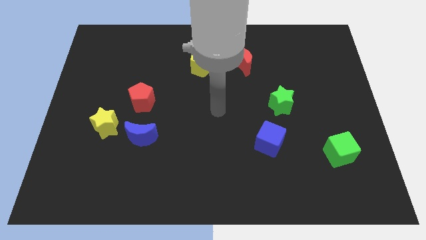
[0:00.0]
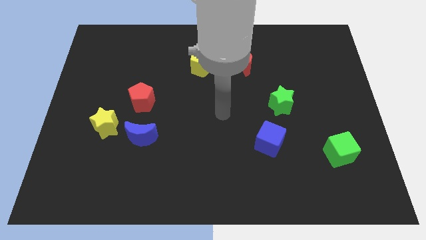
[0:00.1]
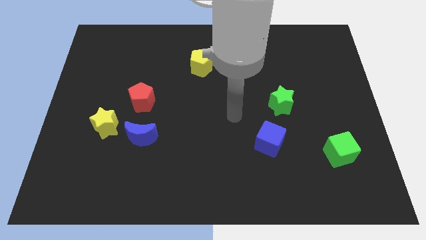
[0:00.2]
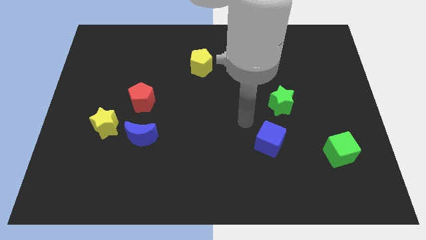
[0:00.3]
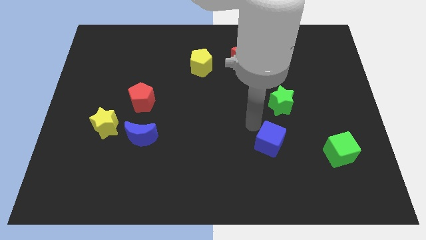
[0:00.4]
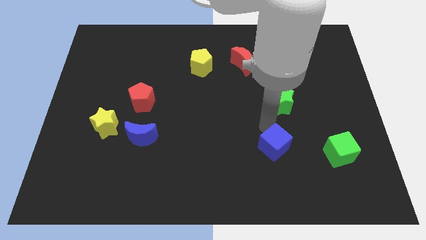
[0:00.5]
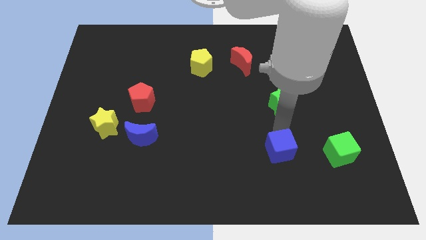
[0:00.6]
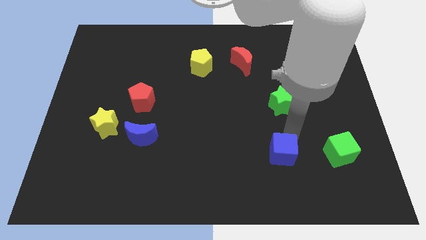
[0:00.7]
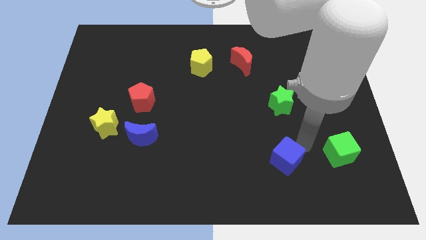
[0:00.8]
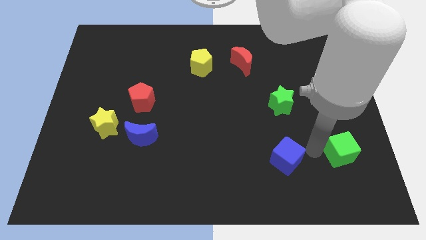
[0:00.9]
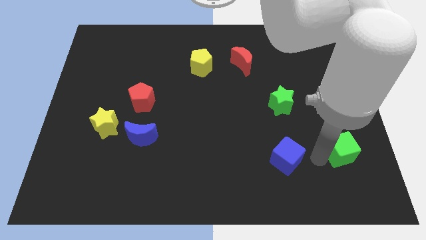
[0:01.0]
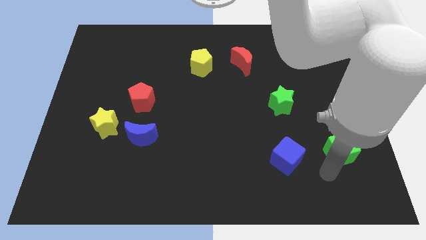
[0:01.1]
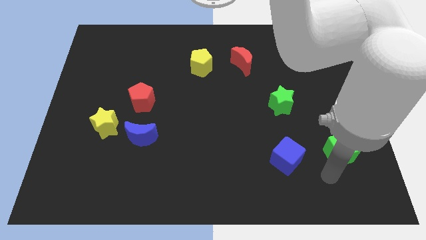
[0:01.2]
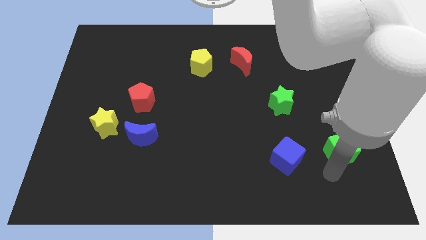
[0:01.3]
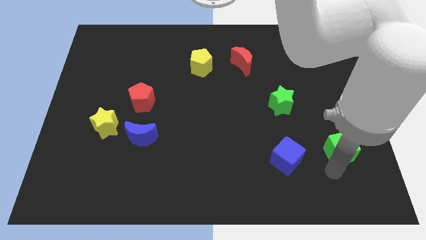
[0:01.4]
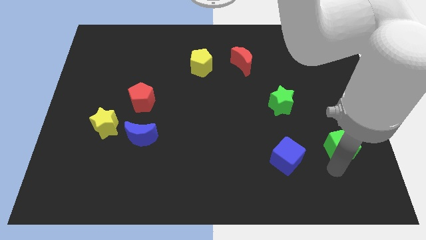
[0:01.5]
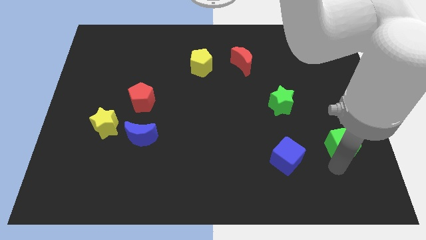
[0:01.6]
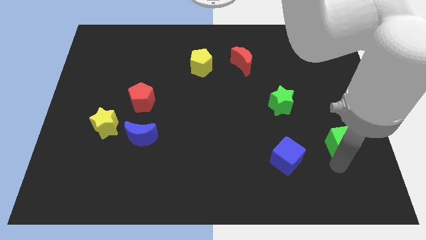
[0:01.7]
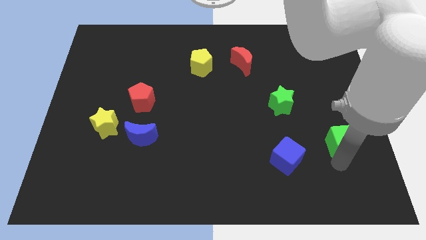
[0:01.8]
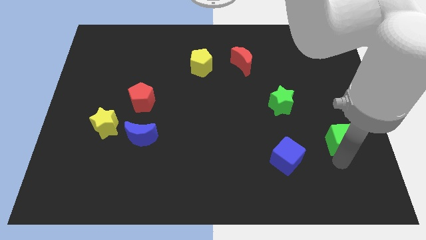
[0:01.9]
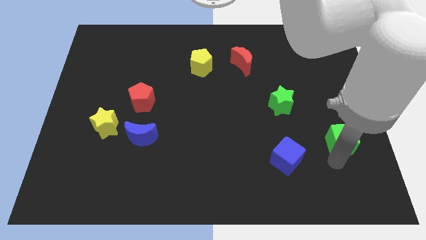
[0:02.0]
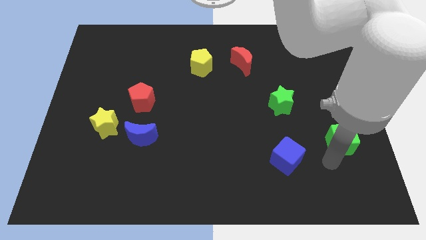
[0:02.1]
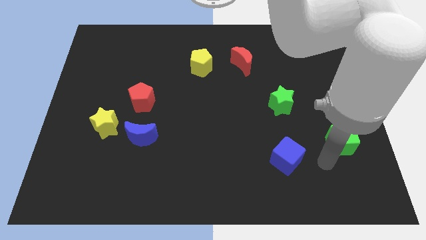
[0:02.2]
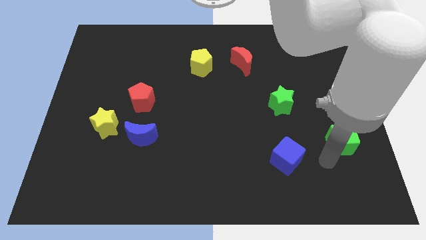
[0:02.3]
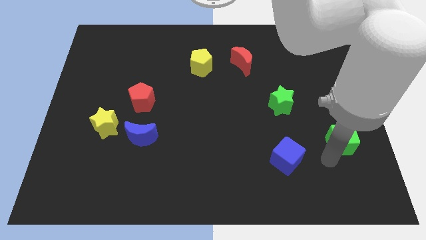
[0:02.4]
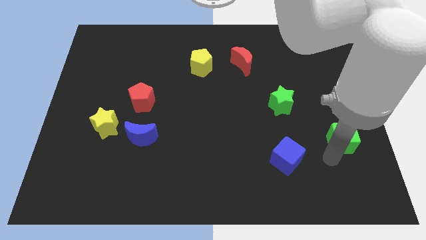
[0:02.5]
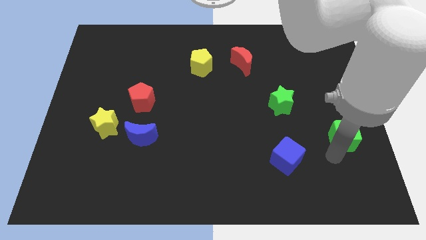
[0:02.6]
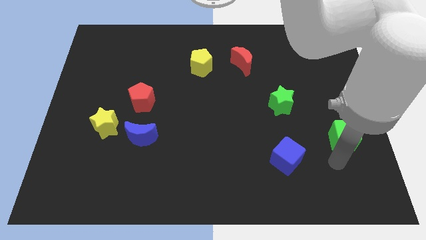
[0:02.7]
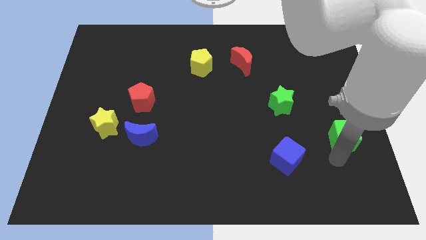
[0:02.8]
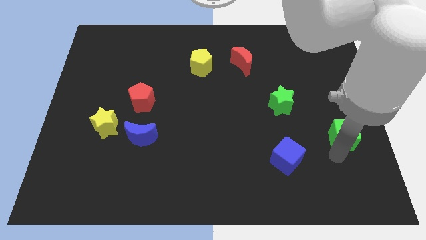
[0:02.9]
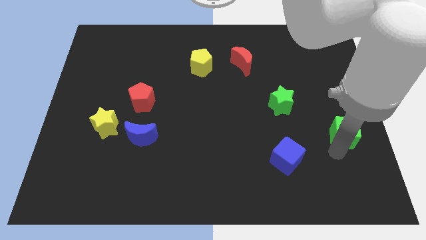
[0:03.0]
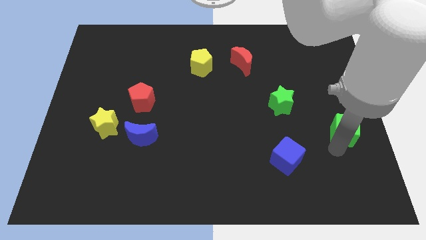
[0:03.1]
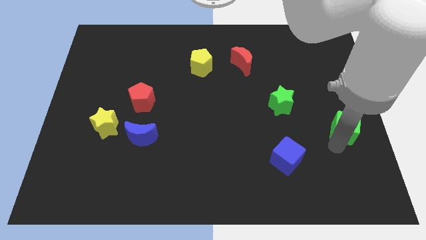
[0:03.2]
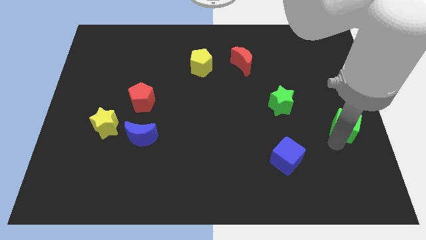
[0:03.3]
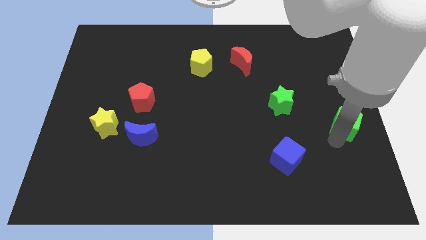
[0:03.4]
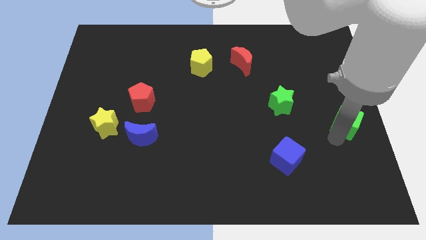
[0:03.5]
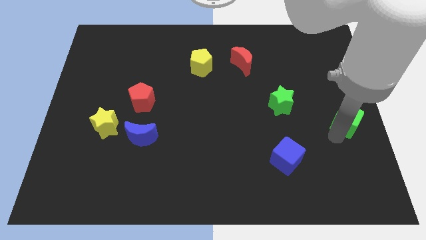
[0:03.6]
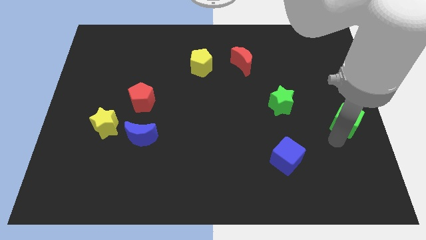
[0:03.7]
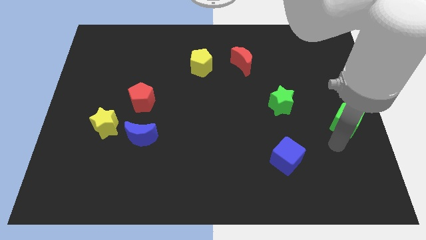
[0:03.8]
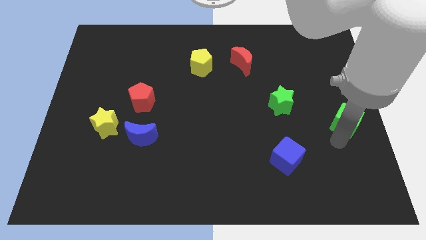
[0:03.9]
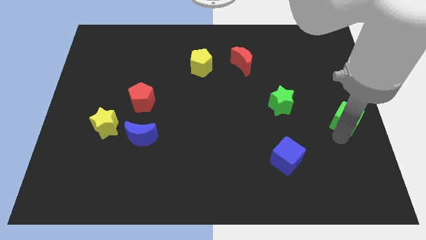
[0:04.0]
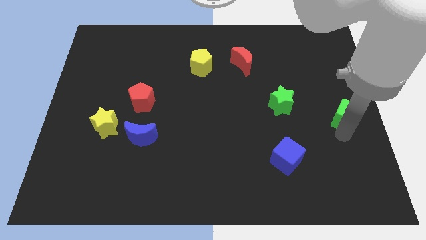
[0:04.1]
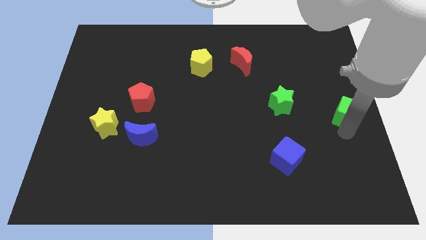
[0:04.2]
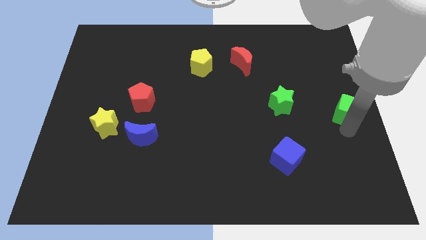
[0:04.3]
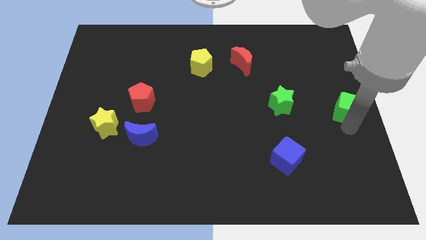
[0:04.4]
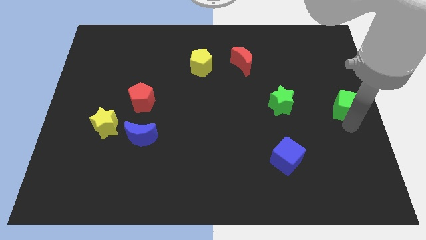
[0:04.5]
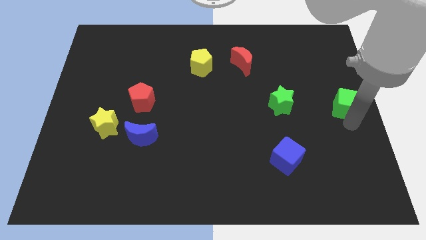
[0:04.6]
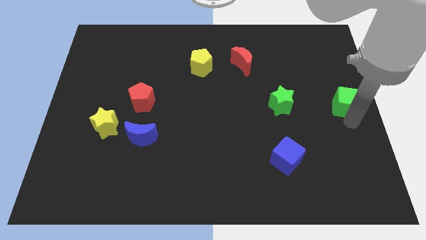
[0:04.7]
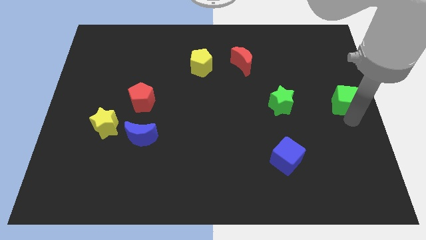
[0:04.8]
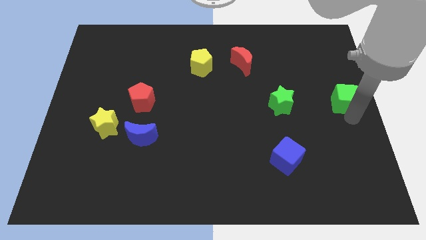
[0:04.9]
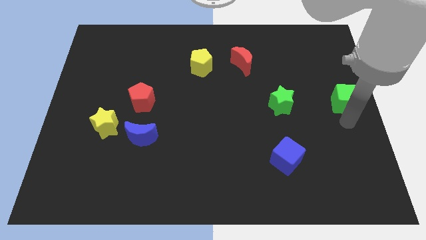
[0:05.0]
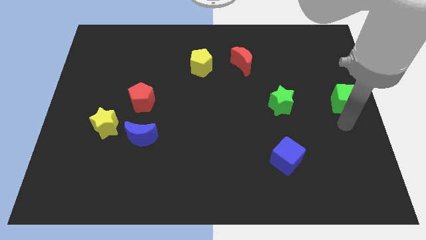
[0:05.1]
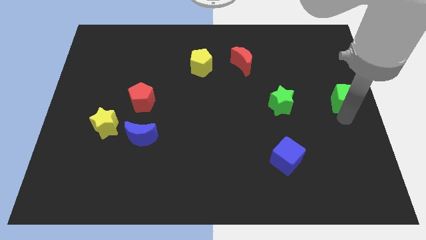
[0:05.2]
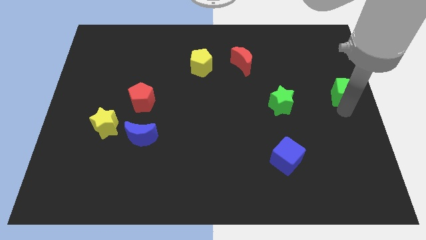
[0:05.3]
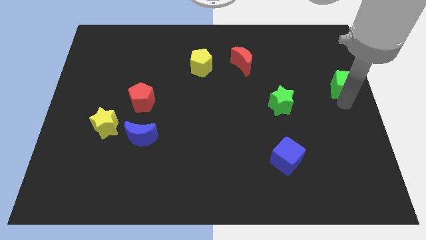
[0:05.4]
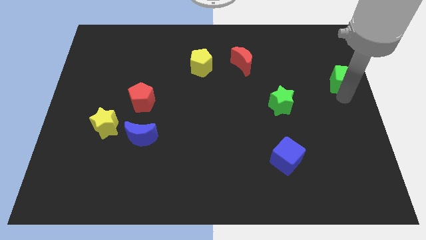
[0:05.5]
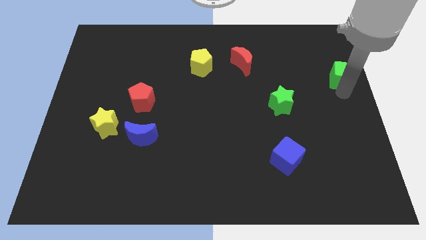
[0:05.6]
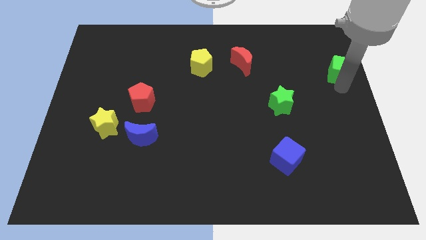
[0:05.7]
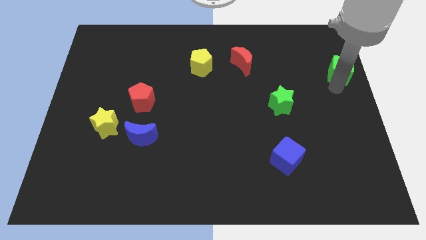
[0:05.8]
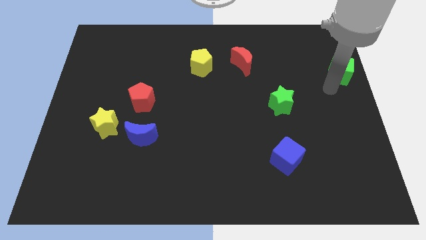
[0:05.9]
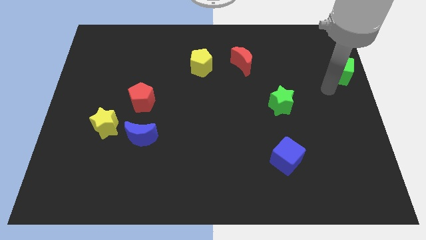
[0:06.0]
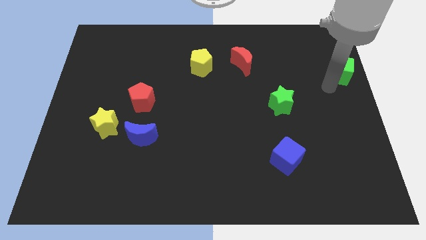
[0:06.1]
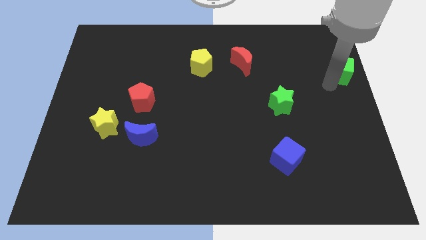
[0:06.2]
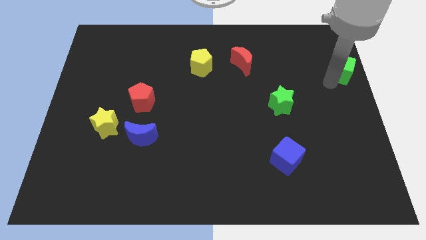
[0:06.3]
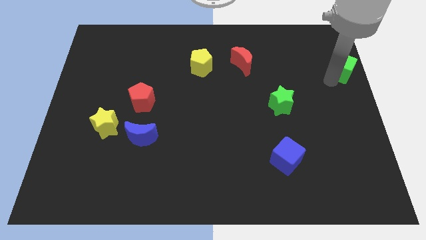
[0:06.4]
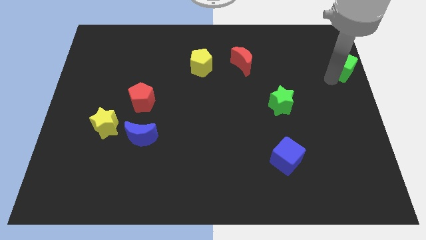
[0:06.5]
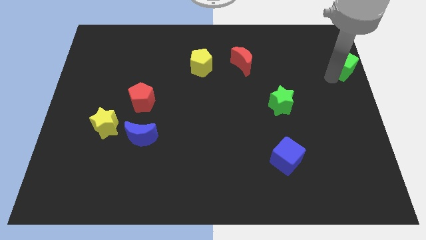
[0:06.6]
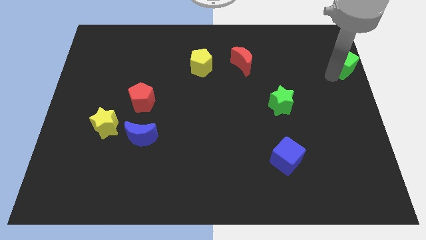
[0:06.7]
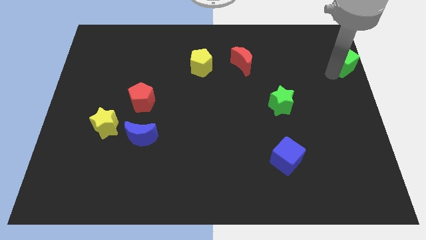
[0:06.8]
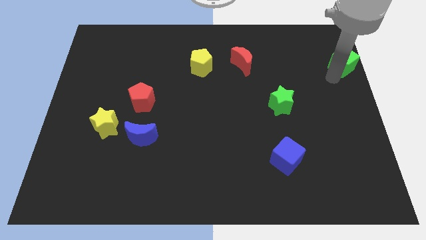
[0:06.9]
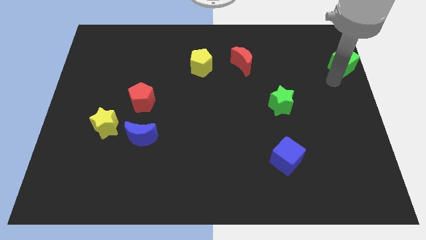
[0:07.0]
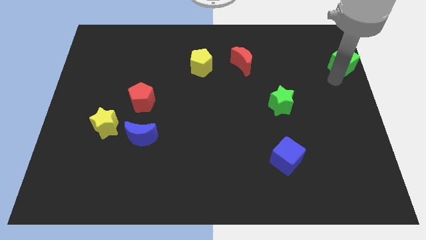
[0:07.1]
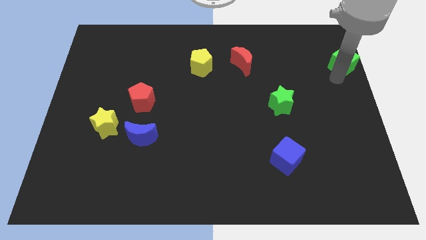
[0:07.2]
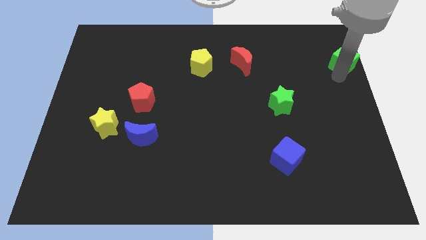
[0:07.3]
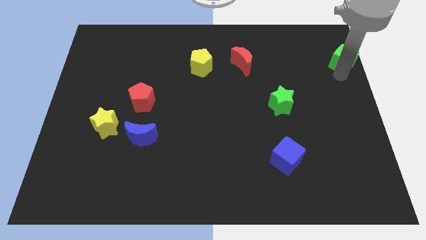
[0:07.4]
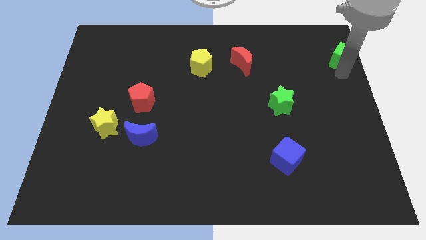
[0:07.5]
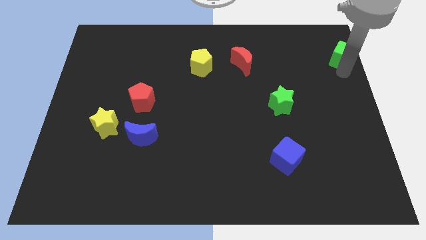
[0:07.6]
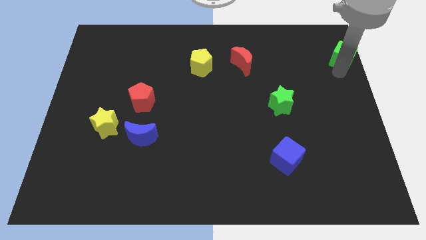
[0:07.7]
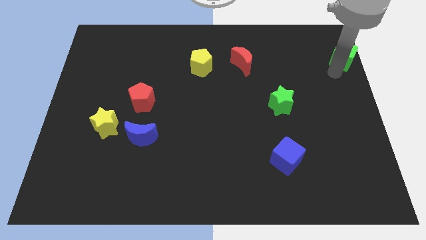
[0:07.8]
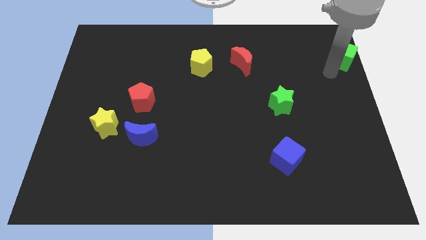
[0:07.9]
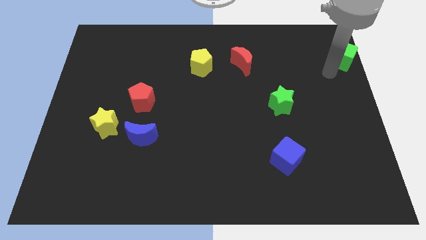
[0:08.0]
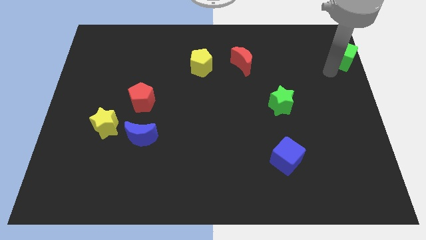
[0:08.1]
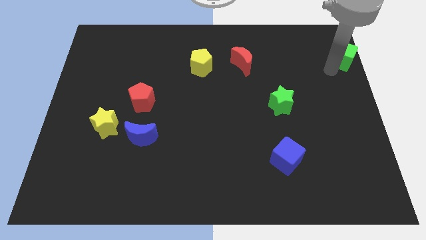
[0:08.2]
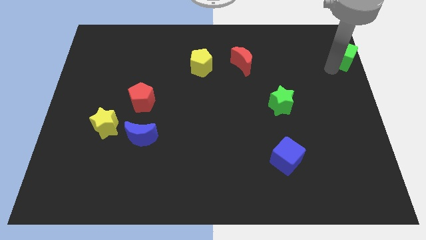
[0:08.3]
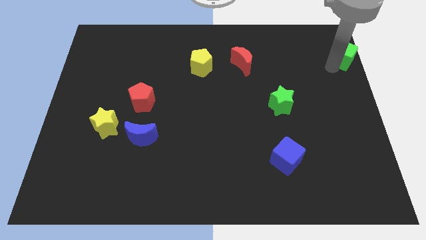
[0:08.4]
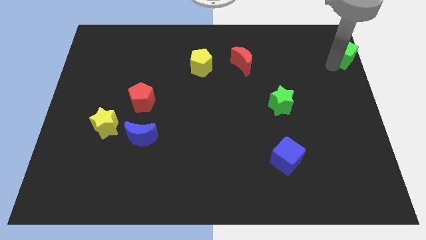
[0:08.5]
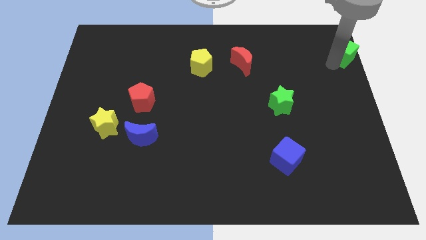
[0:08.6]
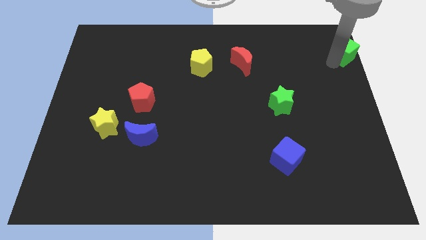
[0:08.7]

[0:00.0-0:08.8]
push the green cube to the upper right corner
